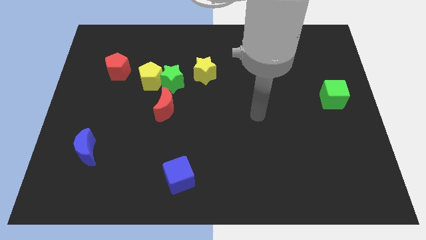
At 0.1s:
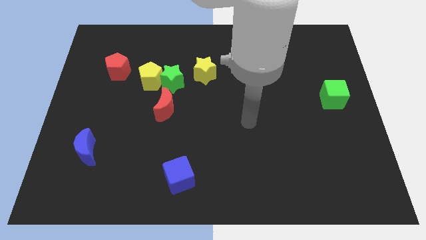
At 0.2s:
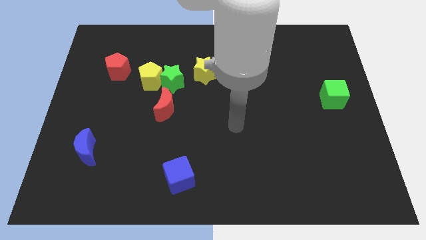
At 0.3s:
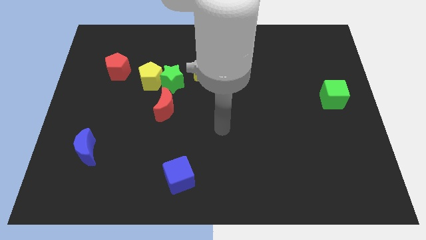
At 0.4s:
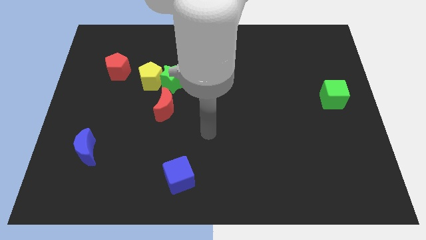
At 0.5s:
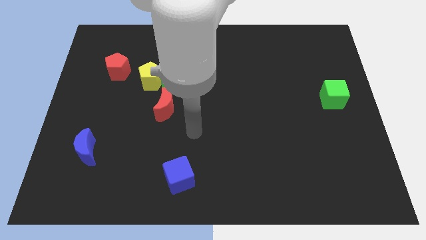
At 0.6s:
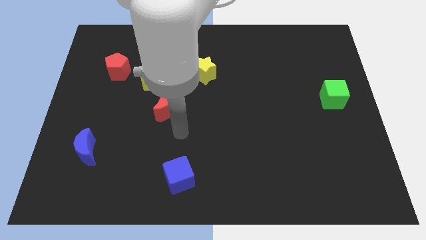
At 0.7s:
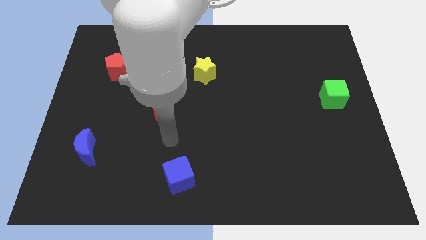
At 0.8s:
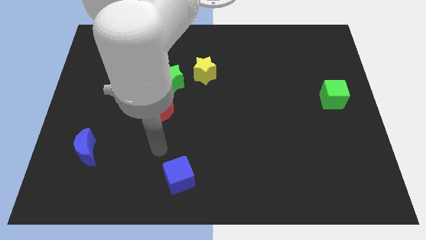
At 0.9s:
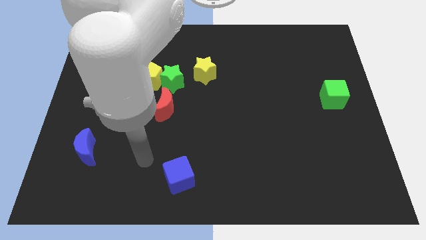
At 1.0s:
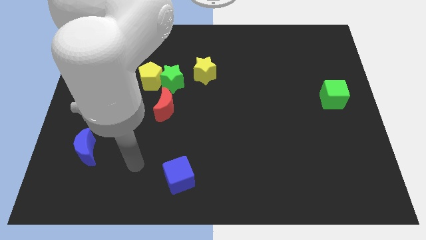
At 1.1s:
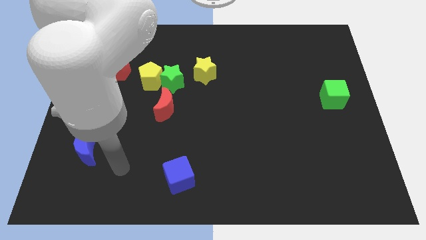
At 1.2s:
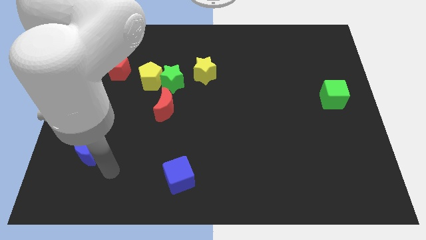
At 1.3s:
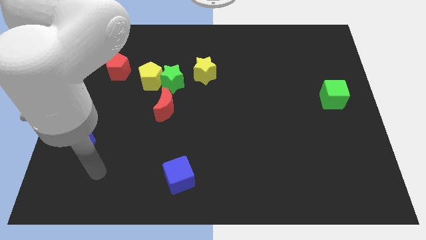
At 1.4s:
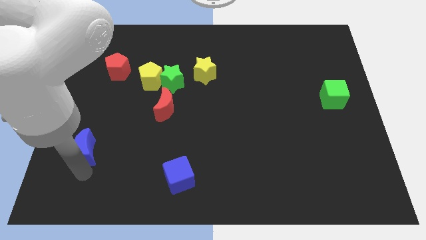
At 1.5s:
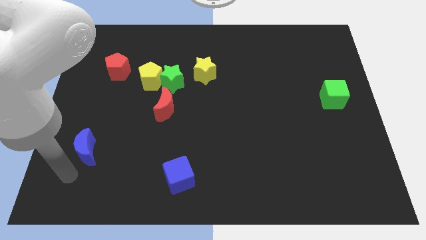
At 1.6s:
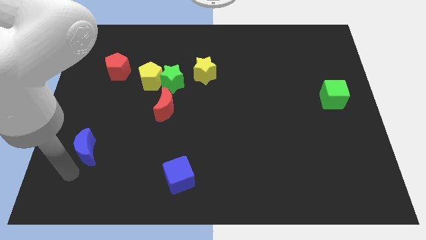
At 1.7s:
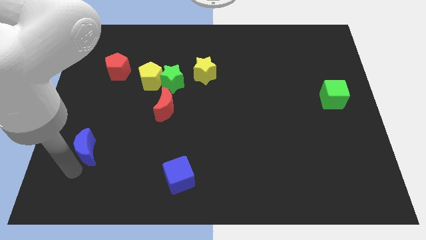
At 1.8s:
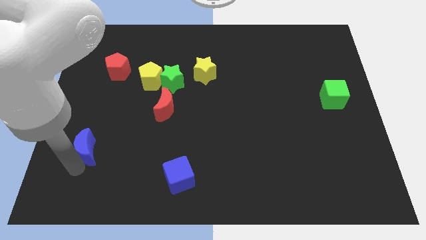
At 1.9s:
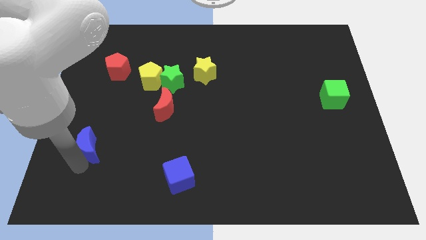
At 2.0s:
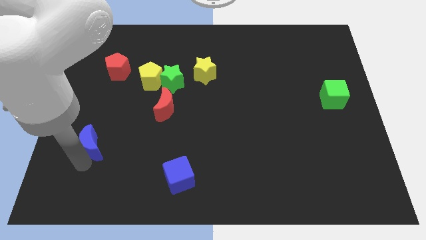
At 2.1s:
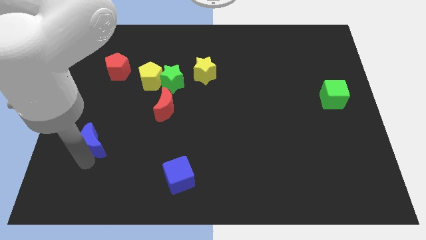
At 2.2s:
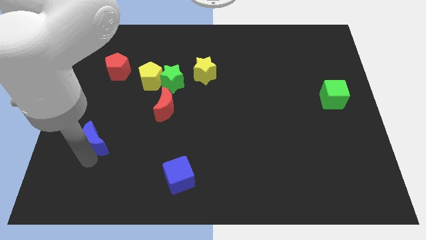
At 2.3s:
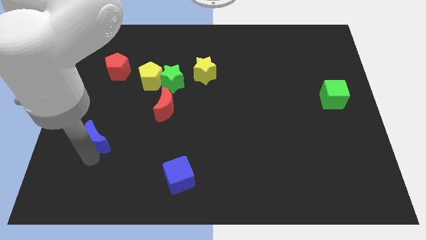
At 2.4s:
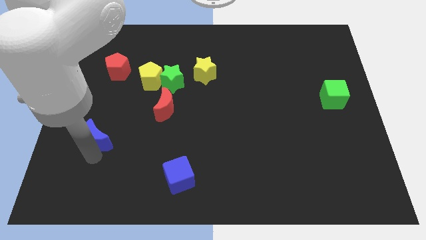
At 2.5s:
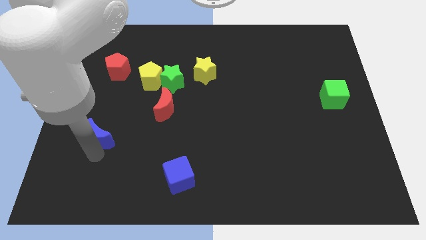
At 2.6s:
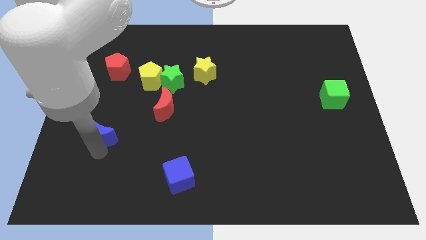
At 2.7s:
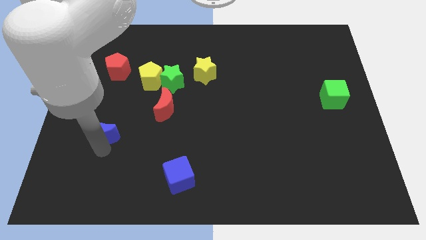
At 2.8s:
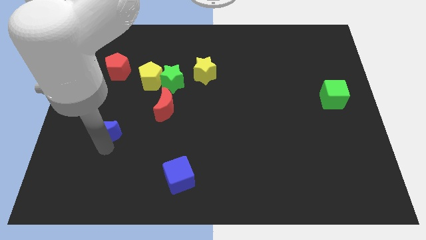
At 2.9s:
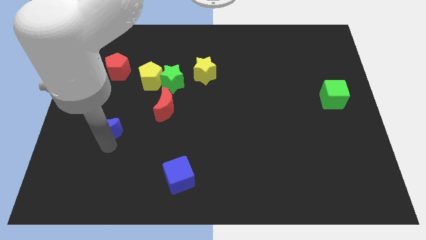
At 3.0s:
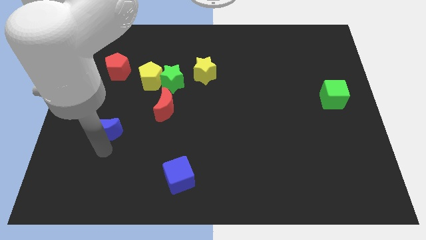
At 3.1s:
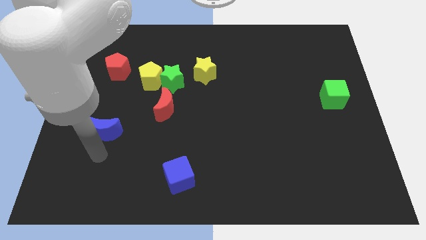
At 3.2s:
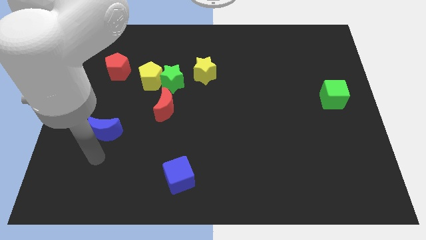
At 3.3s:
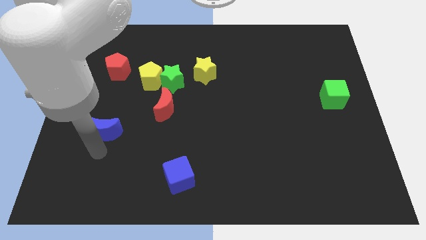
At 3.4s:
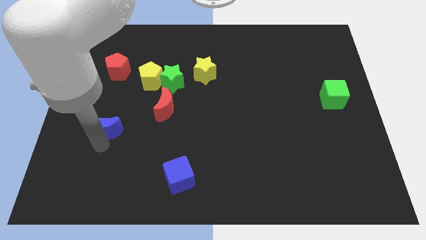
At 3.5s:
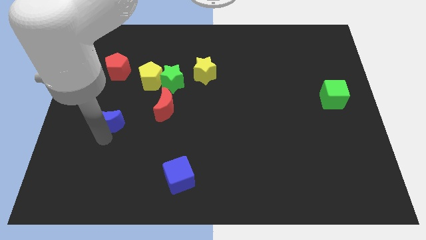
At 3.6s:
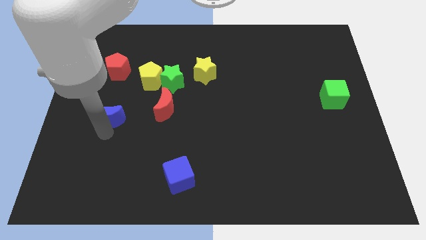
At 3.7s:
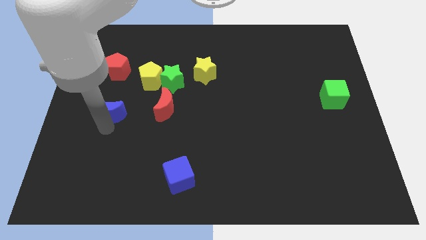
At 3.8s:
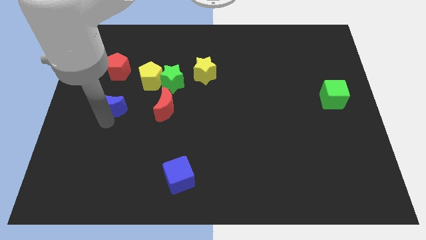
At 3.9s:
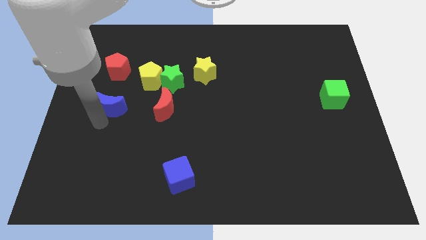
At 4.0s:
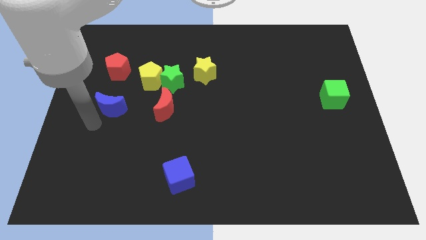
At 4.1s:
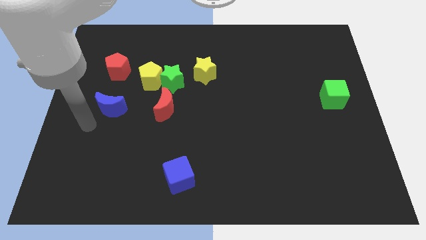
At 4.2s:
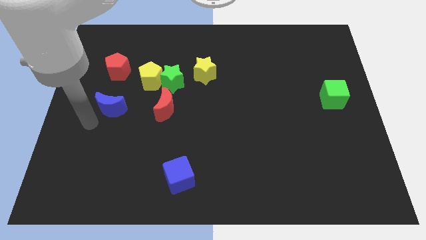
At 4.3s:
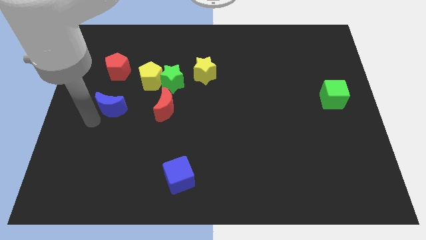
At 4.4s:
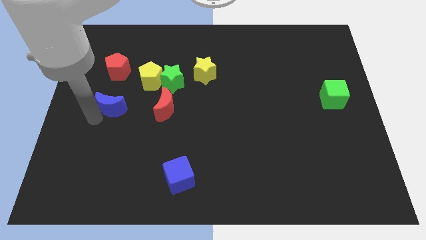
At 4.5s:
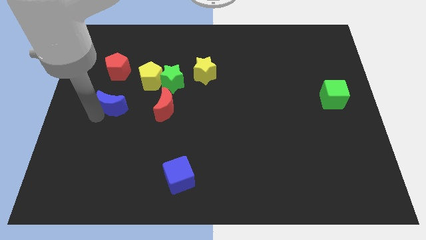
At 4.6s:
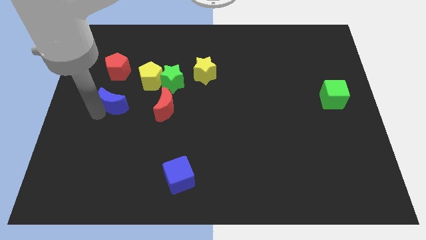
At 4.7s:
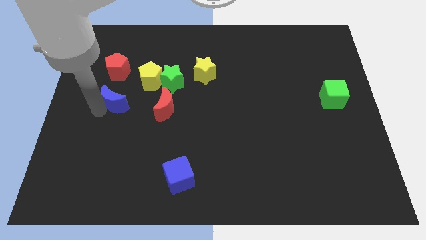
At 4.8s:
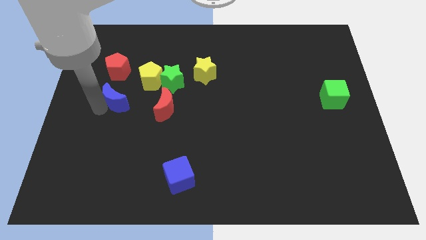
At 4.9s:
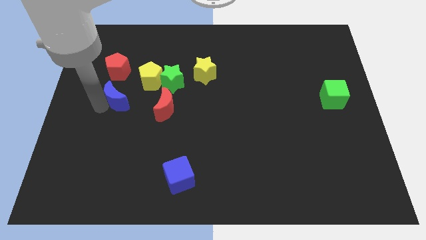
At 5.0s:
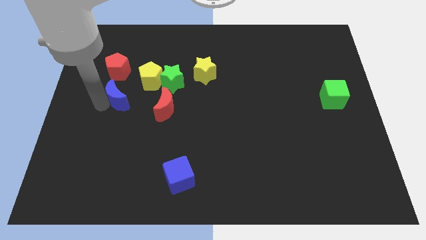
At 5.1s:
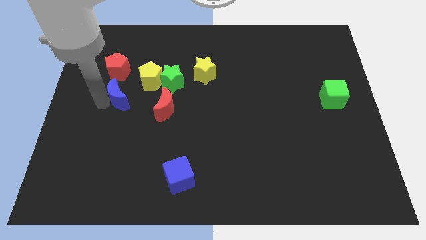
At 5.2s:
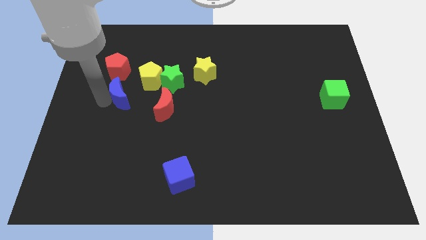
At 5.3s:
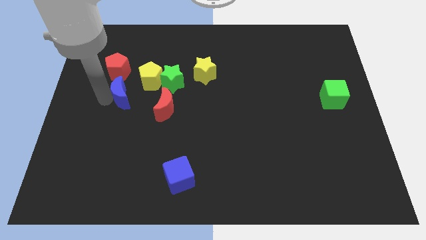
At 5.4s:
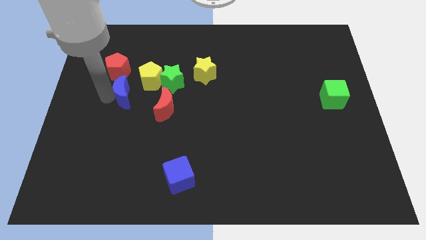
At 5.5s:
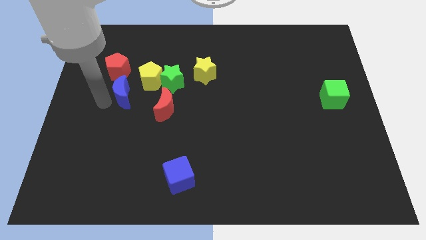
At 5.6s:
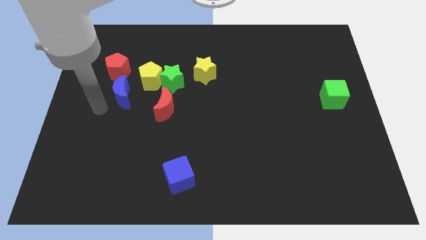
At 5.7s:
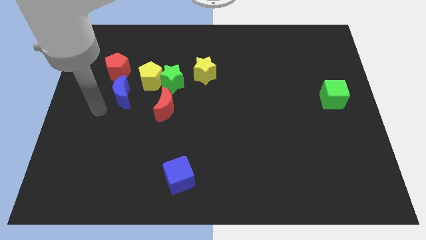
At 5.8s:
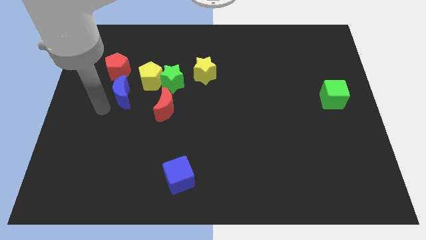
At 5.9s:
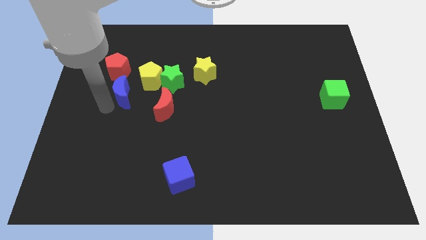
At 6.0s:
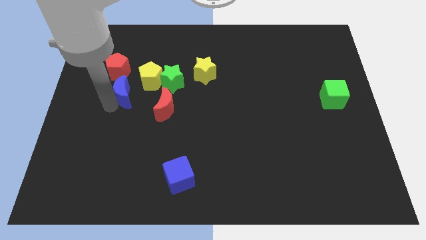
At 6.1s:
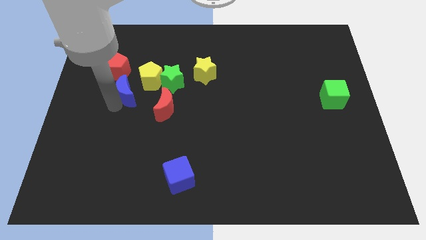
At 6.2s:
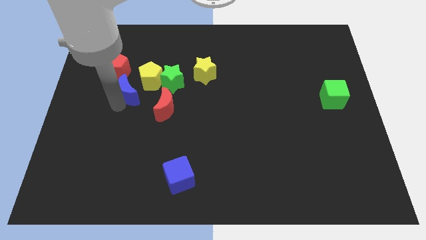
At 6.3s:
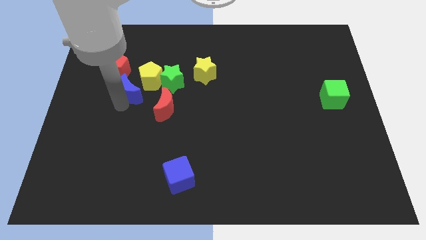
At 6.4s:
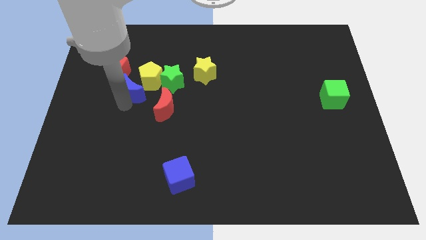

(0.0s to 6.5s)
push the blue moon towards the yellow pentagon
